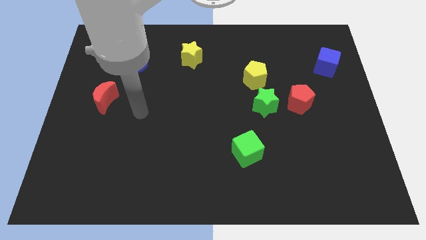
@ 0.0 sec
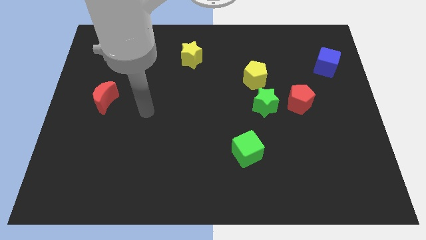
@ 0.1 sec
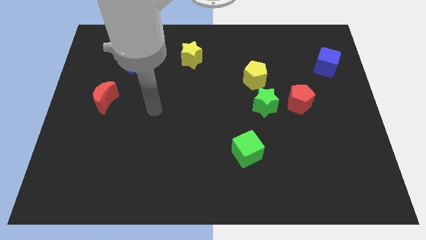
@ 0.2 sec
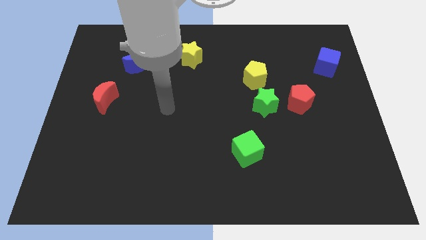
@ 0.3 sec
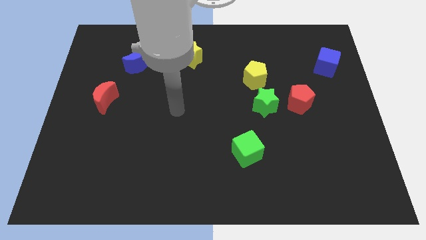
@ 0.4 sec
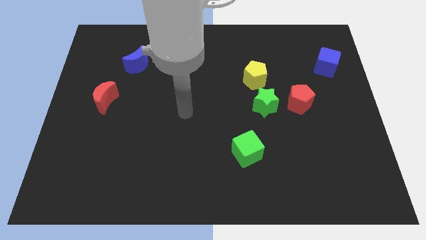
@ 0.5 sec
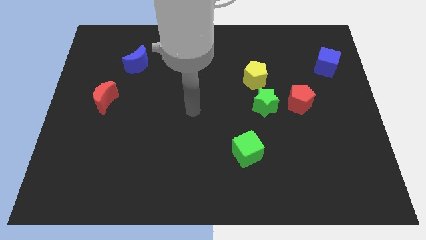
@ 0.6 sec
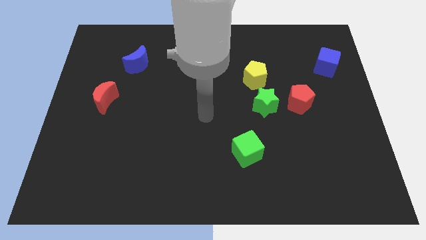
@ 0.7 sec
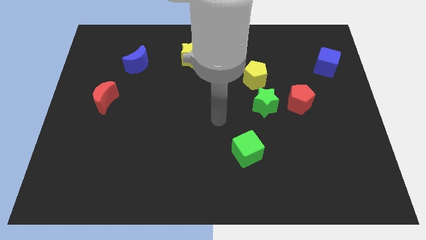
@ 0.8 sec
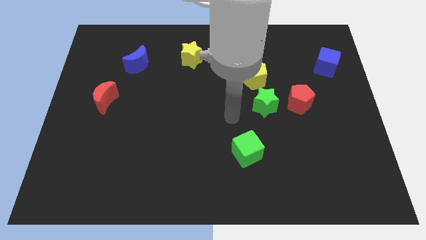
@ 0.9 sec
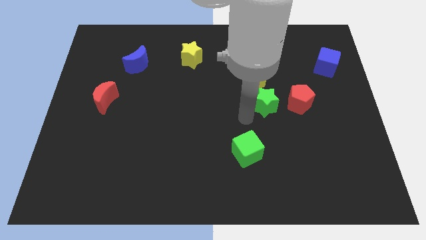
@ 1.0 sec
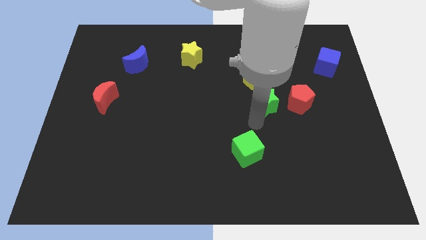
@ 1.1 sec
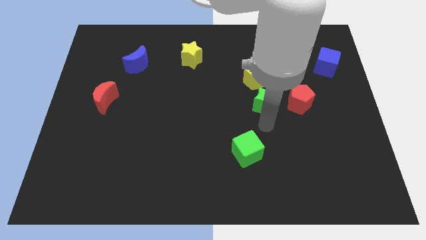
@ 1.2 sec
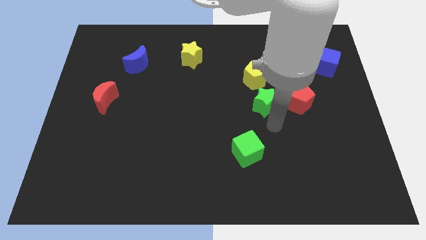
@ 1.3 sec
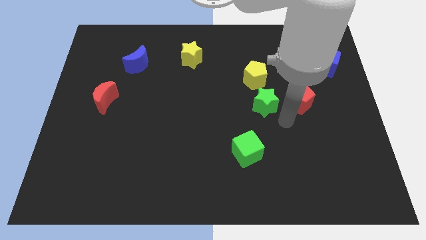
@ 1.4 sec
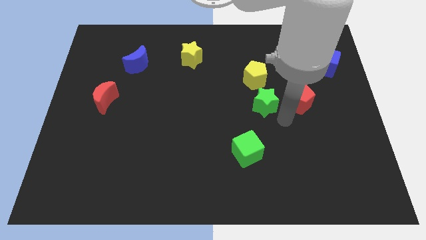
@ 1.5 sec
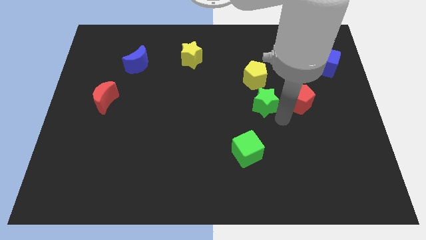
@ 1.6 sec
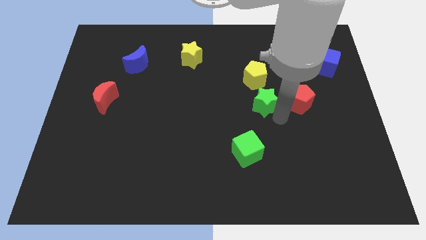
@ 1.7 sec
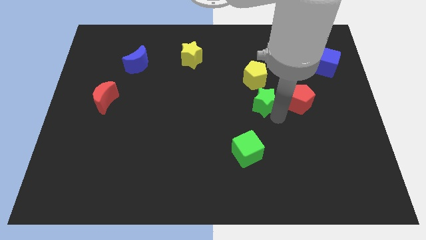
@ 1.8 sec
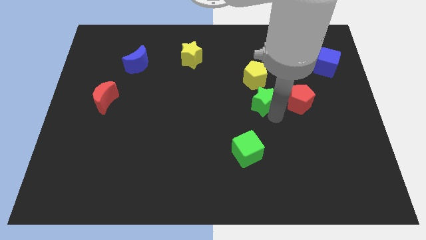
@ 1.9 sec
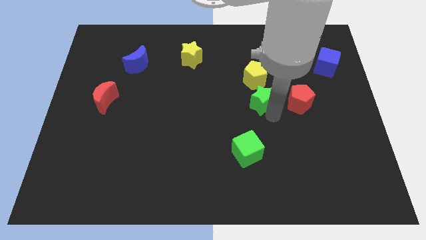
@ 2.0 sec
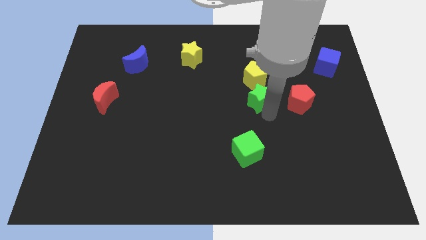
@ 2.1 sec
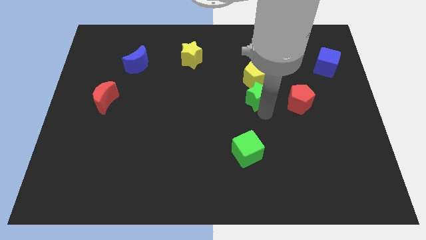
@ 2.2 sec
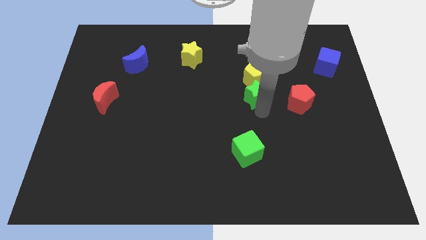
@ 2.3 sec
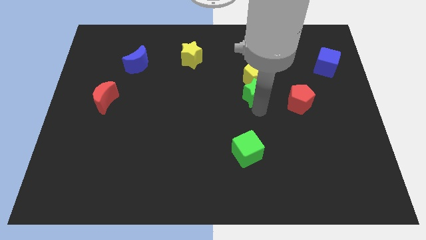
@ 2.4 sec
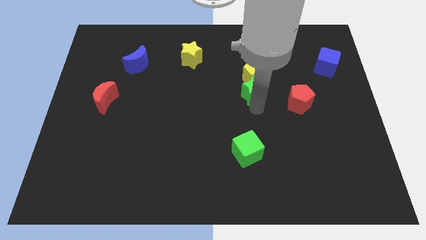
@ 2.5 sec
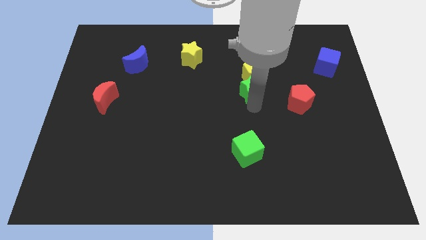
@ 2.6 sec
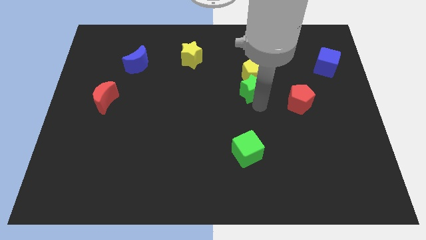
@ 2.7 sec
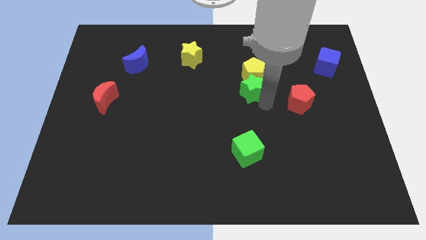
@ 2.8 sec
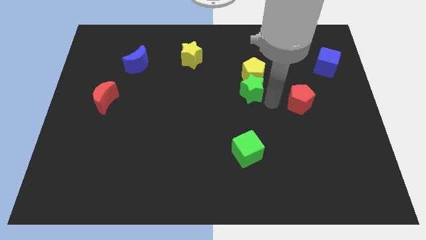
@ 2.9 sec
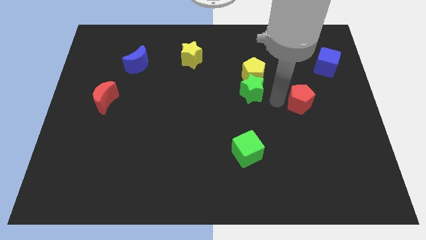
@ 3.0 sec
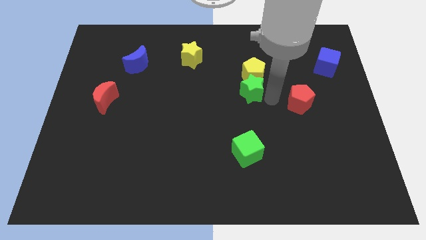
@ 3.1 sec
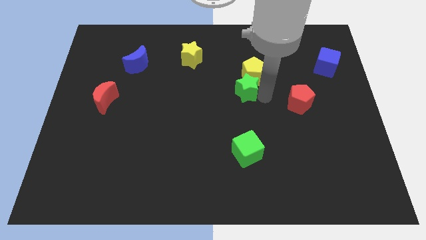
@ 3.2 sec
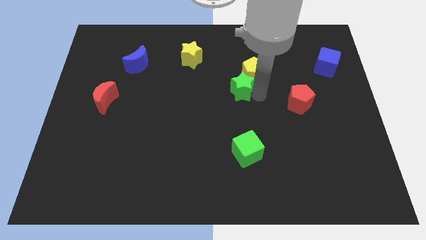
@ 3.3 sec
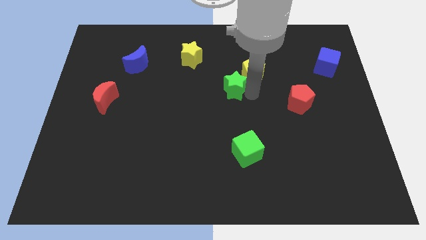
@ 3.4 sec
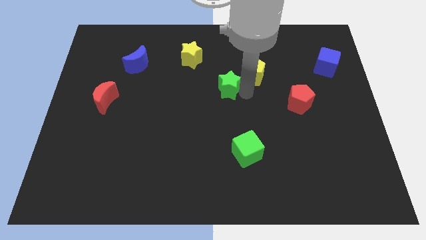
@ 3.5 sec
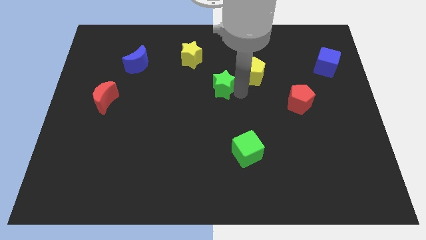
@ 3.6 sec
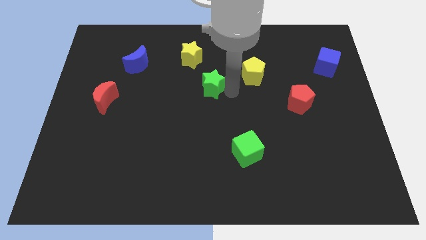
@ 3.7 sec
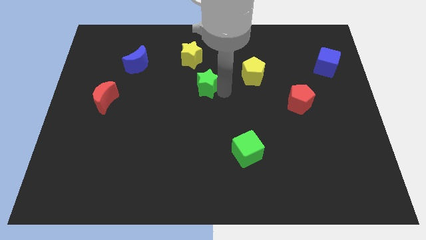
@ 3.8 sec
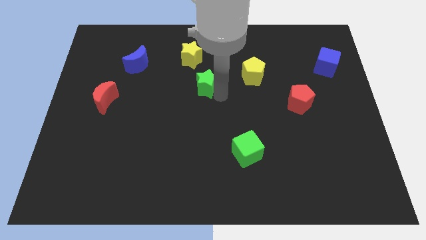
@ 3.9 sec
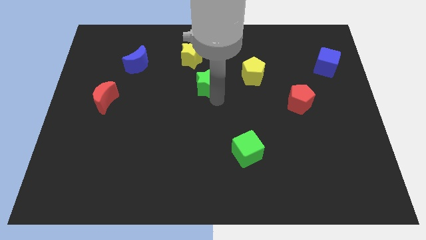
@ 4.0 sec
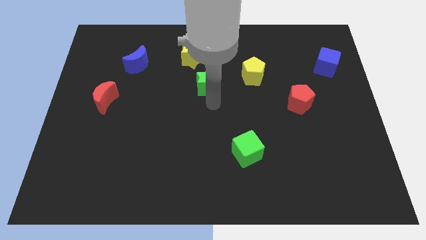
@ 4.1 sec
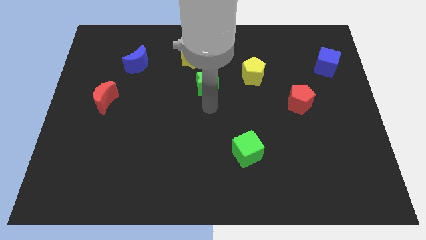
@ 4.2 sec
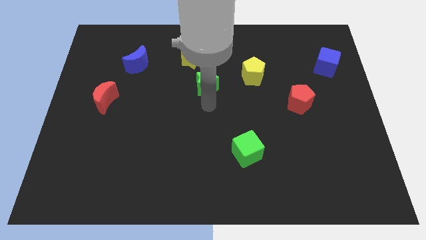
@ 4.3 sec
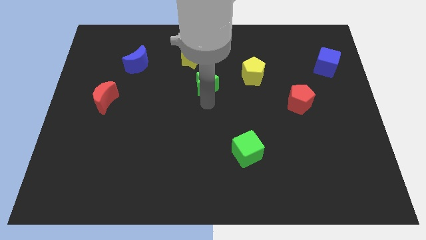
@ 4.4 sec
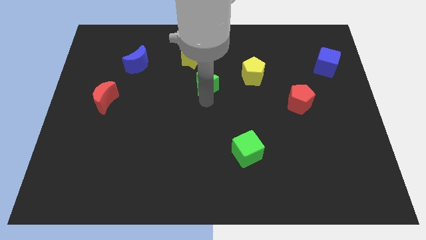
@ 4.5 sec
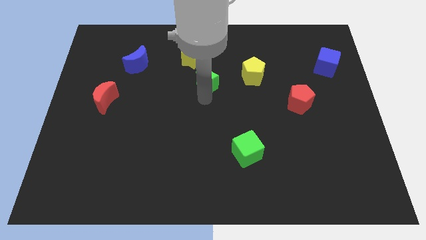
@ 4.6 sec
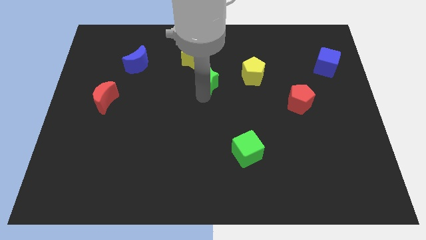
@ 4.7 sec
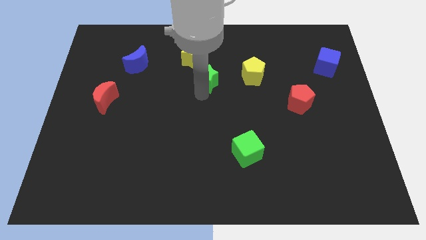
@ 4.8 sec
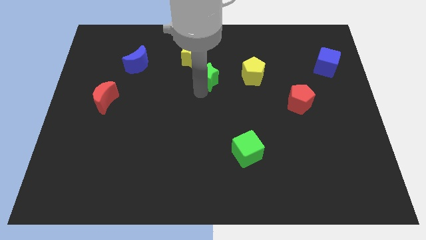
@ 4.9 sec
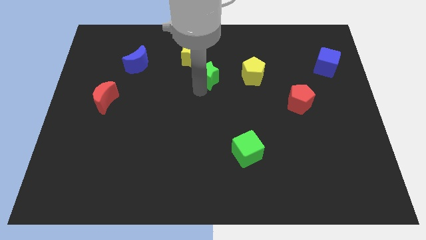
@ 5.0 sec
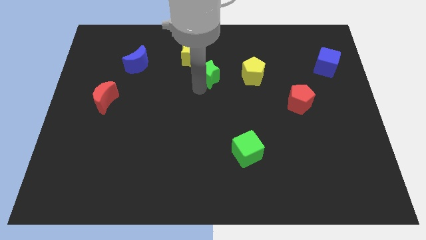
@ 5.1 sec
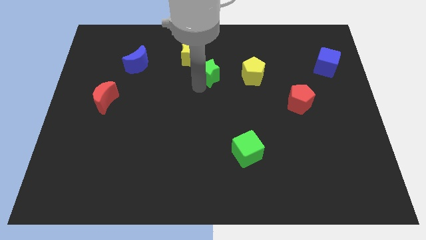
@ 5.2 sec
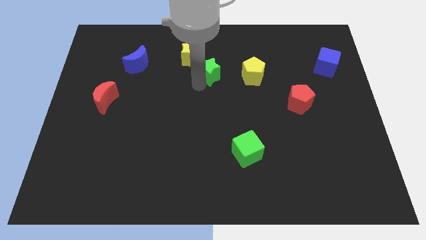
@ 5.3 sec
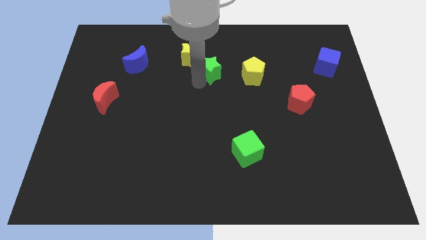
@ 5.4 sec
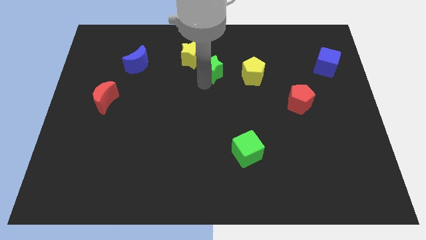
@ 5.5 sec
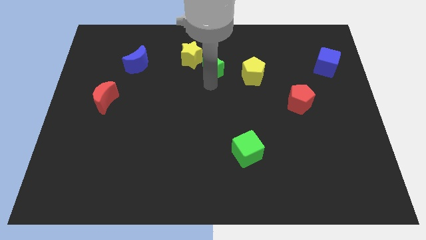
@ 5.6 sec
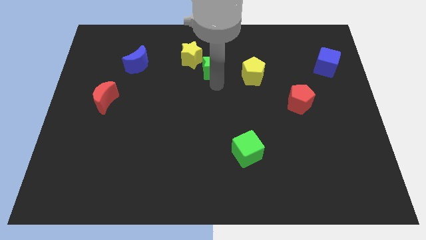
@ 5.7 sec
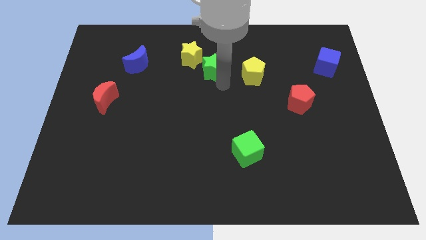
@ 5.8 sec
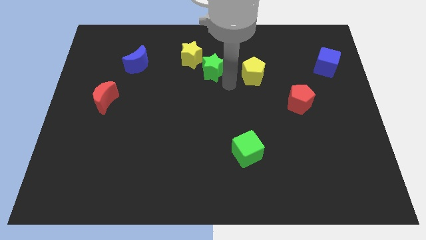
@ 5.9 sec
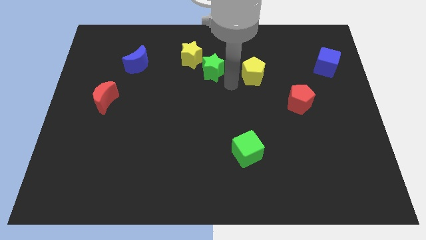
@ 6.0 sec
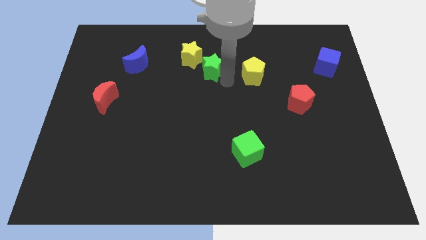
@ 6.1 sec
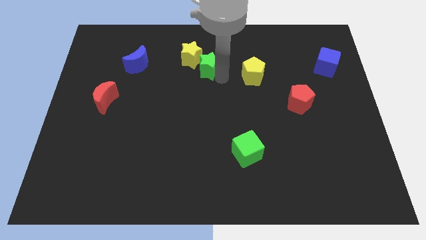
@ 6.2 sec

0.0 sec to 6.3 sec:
put the green star close to the yellow star
